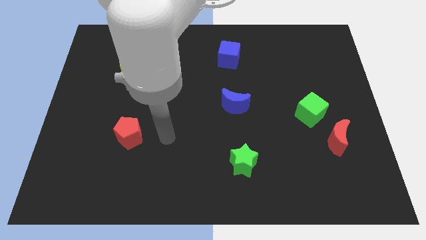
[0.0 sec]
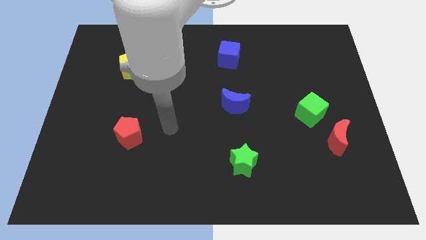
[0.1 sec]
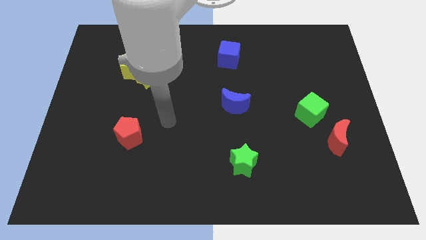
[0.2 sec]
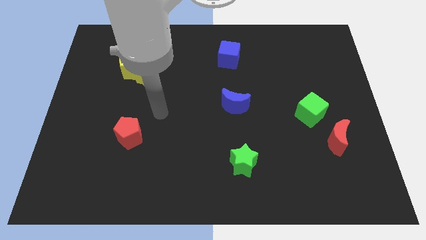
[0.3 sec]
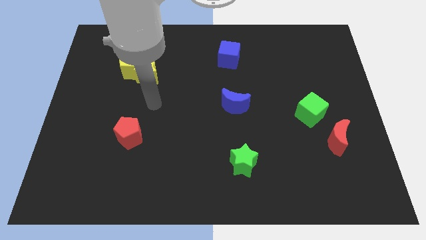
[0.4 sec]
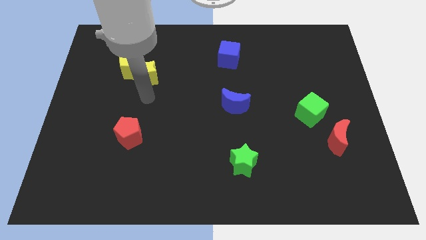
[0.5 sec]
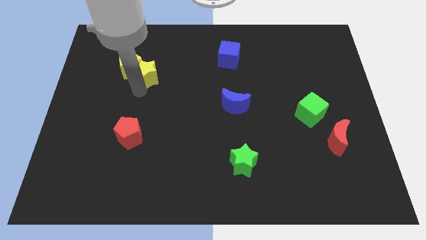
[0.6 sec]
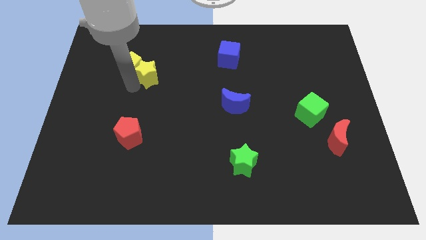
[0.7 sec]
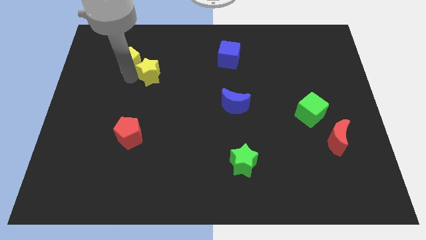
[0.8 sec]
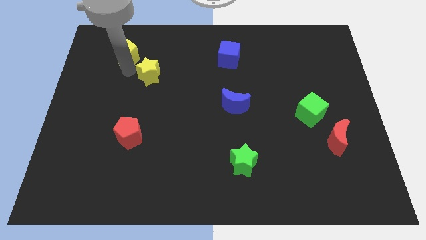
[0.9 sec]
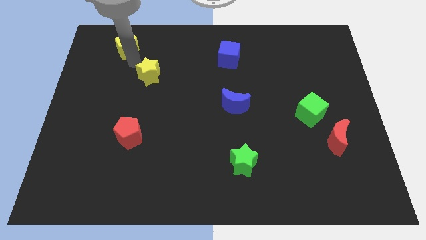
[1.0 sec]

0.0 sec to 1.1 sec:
separate the yellow star from the yellow pentagon

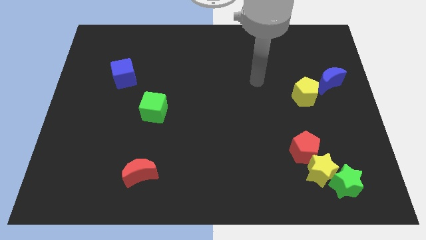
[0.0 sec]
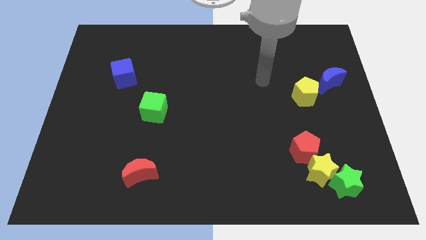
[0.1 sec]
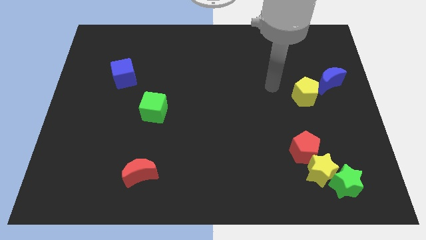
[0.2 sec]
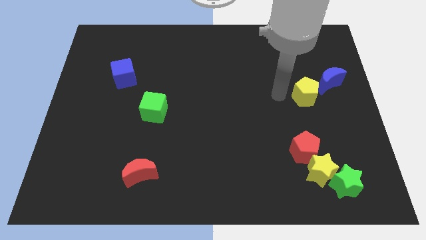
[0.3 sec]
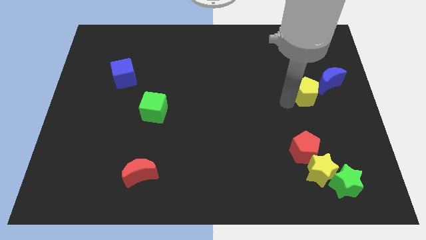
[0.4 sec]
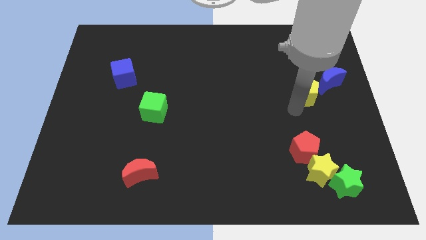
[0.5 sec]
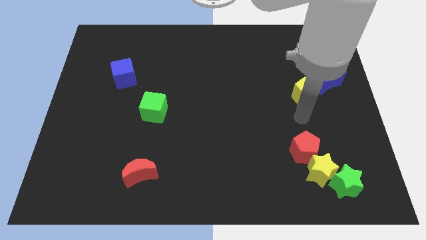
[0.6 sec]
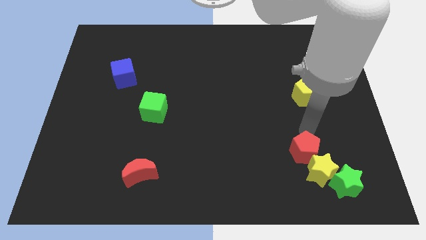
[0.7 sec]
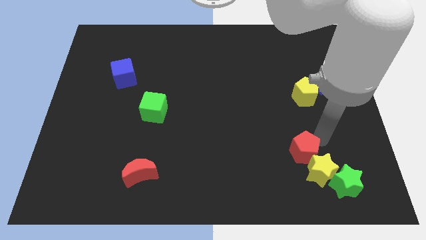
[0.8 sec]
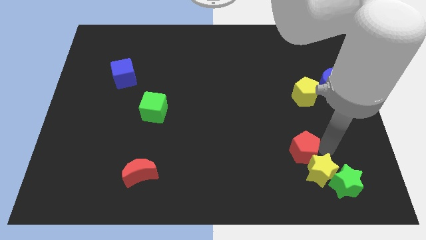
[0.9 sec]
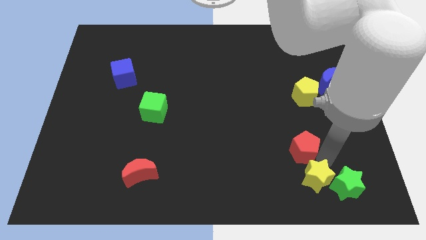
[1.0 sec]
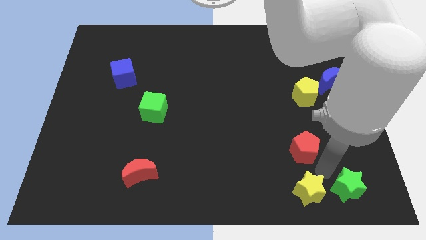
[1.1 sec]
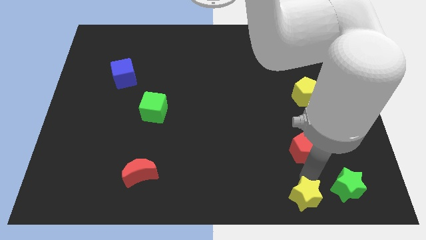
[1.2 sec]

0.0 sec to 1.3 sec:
pull the red pentagon apart from the yellow star

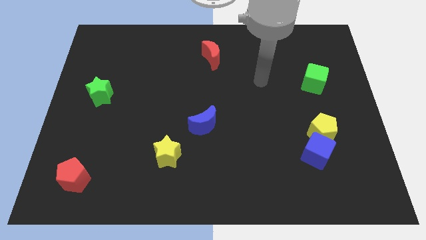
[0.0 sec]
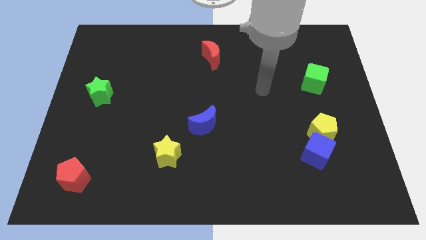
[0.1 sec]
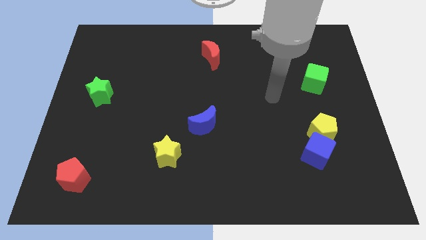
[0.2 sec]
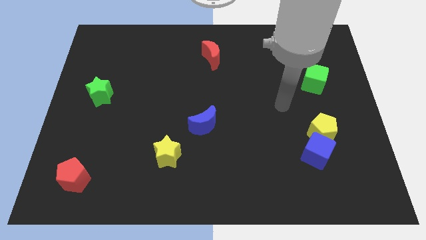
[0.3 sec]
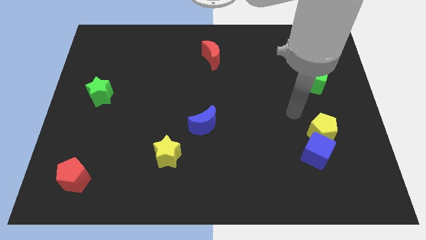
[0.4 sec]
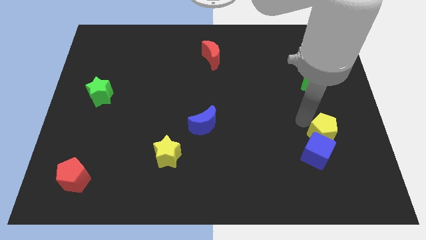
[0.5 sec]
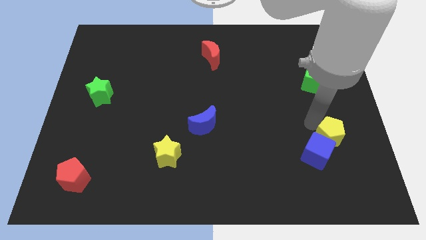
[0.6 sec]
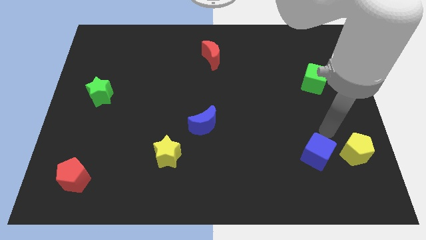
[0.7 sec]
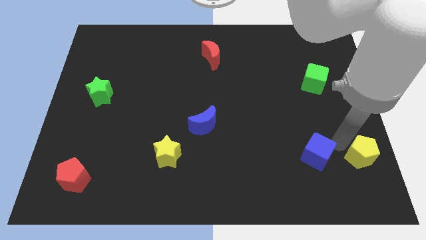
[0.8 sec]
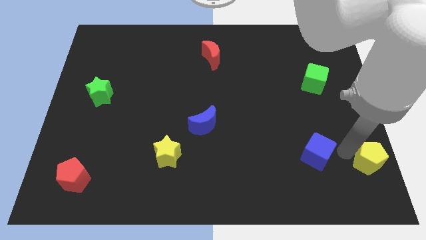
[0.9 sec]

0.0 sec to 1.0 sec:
pull the blue cube apart from the yellow pentagon

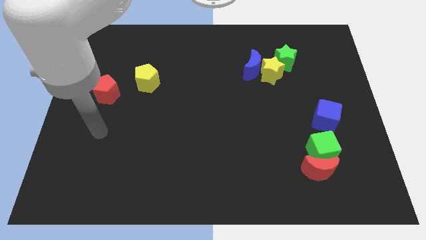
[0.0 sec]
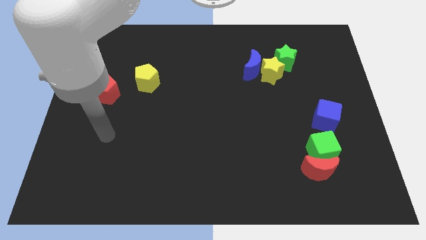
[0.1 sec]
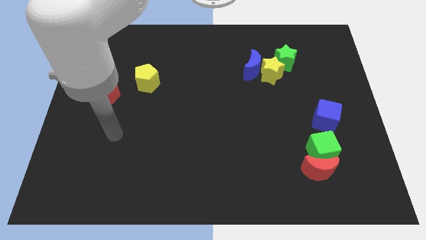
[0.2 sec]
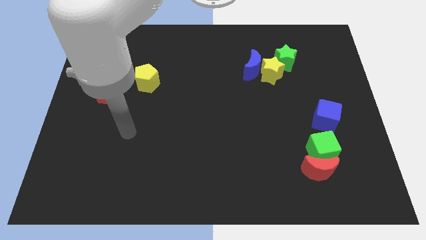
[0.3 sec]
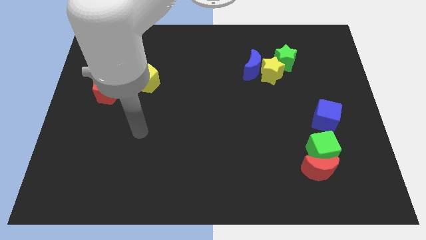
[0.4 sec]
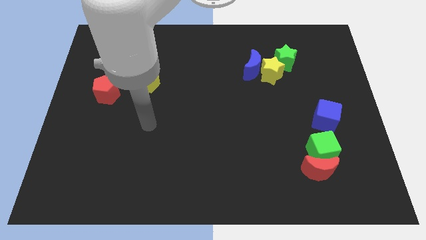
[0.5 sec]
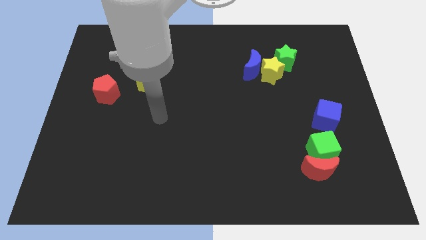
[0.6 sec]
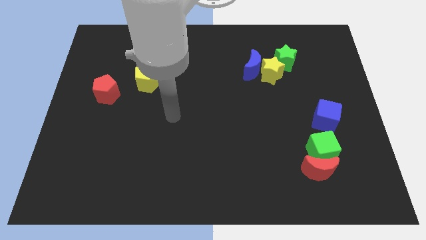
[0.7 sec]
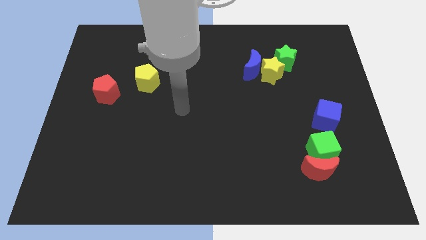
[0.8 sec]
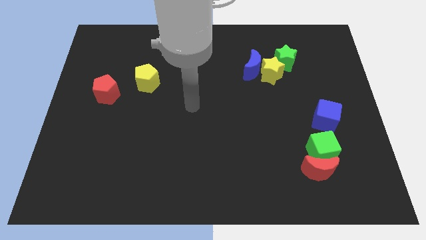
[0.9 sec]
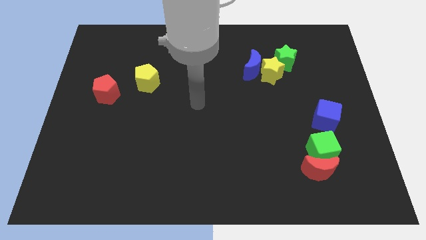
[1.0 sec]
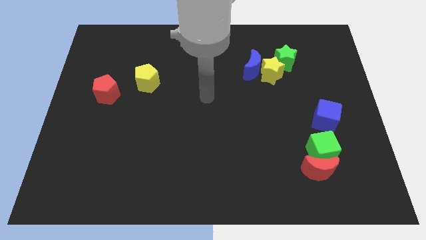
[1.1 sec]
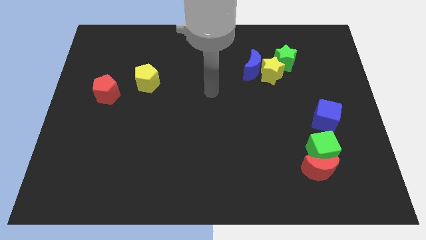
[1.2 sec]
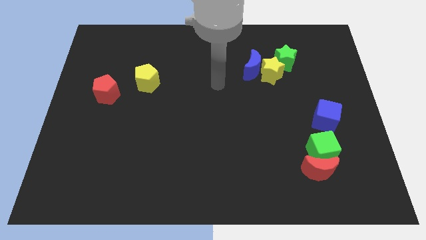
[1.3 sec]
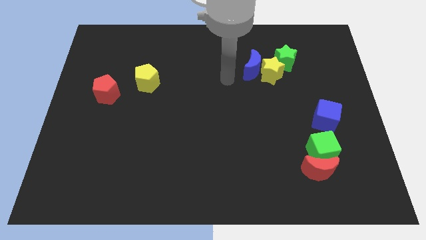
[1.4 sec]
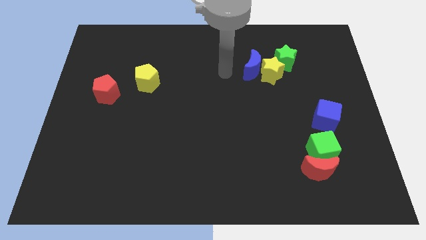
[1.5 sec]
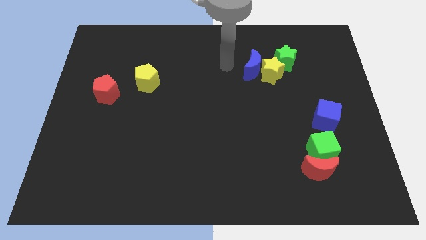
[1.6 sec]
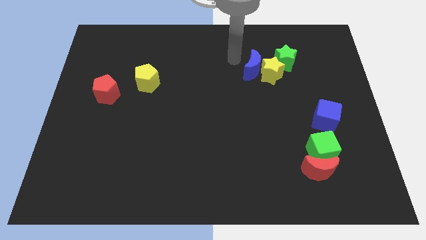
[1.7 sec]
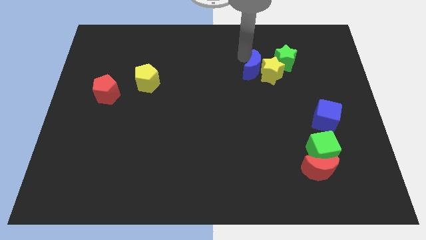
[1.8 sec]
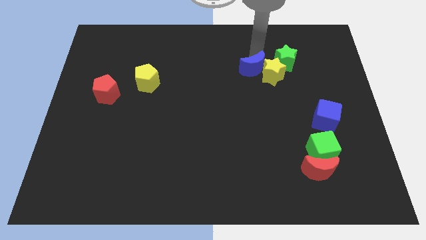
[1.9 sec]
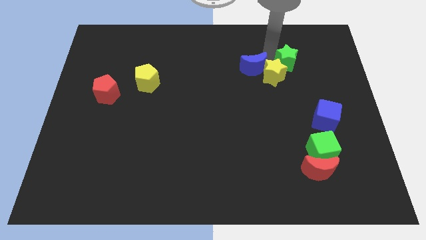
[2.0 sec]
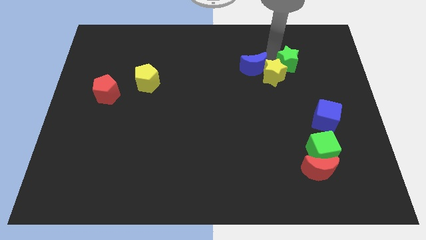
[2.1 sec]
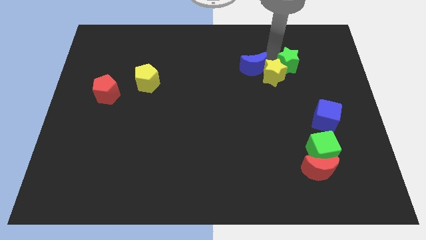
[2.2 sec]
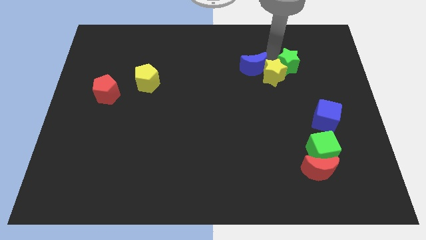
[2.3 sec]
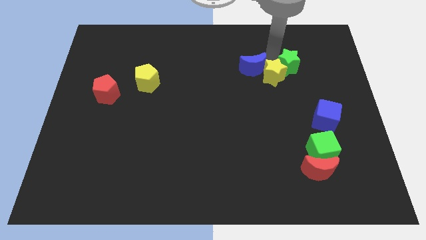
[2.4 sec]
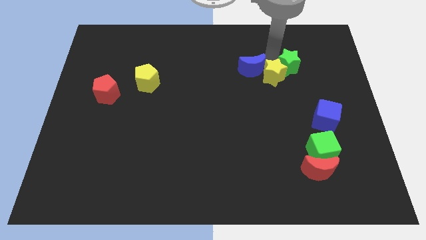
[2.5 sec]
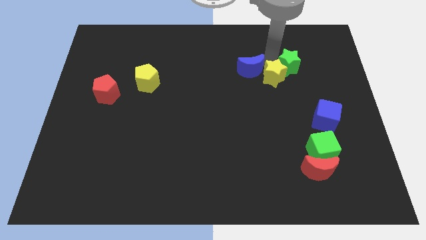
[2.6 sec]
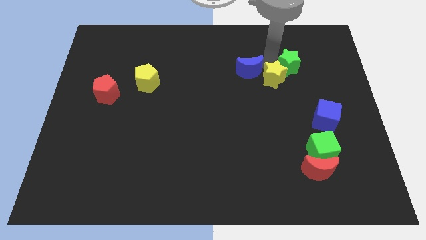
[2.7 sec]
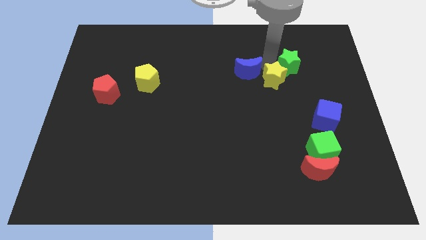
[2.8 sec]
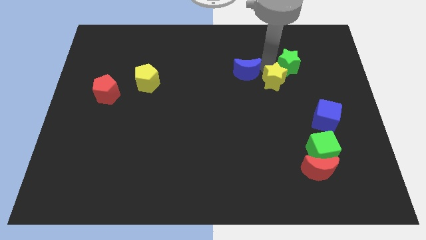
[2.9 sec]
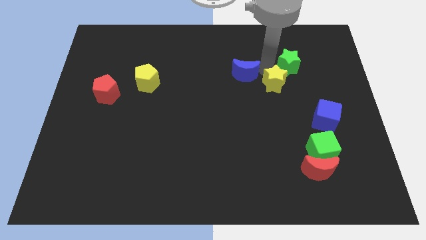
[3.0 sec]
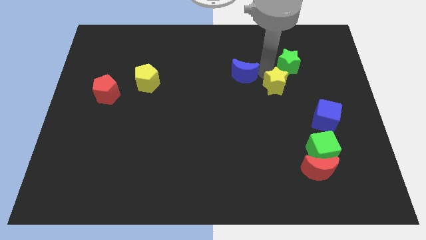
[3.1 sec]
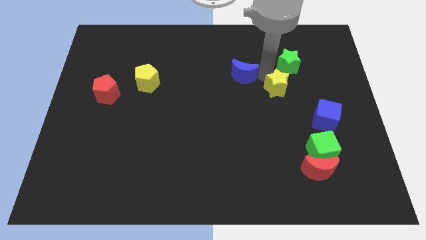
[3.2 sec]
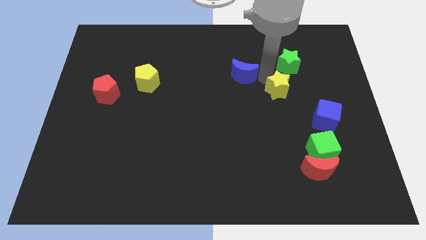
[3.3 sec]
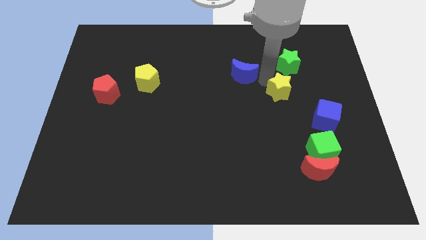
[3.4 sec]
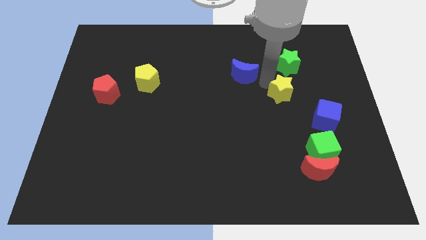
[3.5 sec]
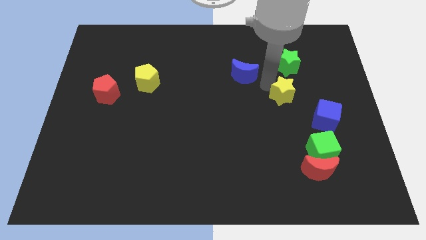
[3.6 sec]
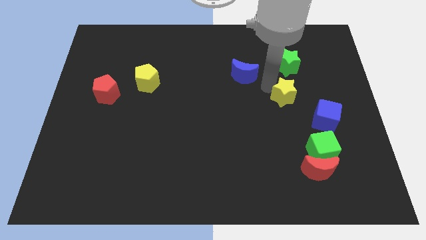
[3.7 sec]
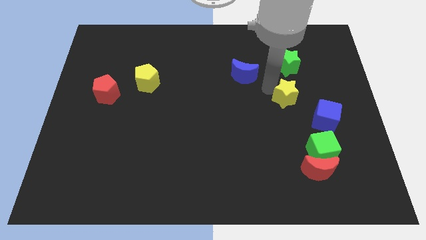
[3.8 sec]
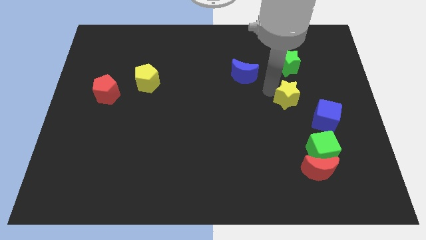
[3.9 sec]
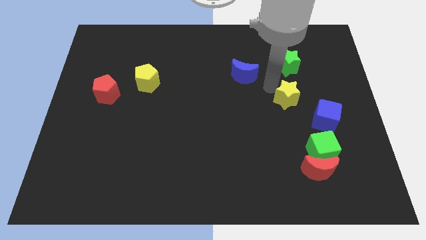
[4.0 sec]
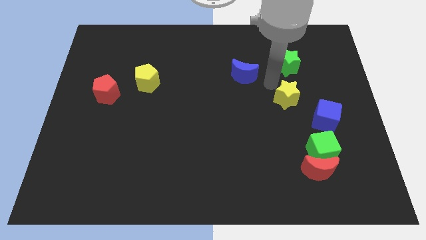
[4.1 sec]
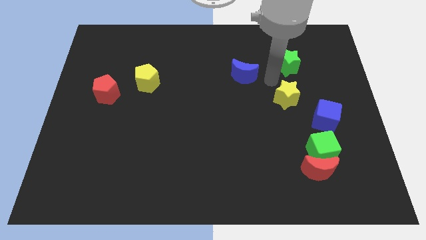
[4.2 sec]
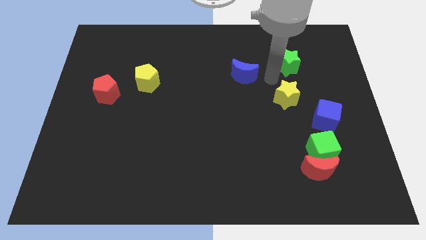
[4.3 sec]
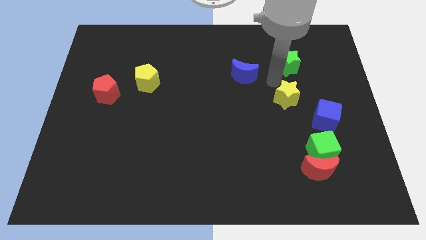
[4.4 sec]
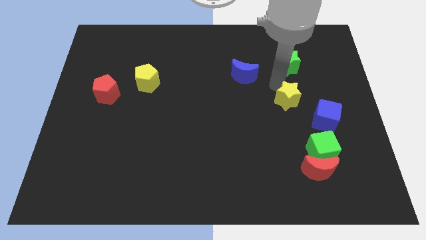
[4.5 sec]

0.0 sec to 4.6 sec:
move the yellow star away from the blue moon and green star

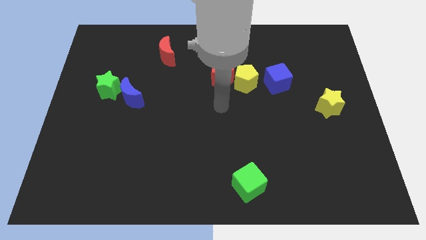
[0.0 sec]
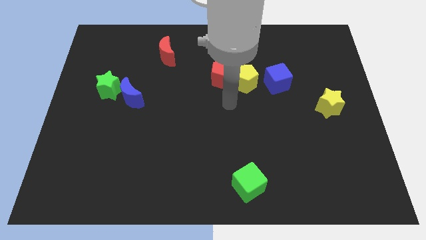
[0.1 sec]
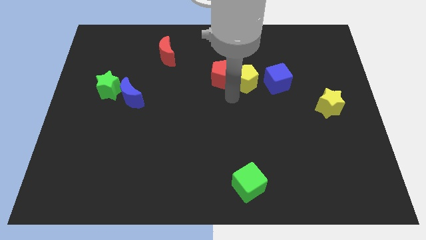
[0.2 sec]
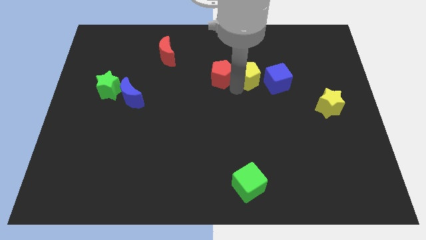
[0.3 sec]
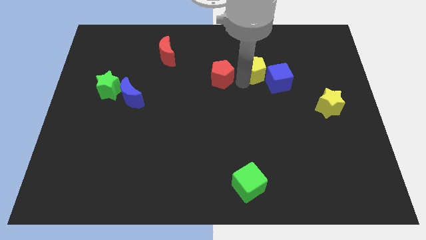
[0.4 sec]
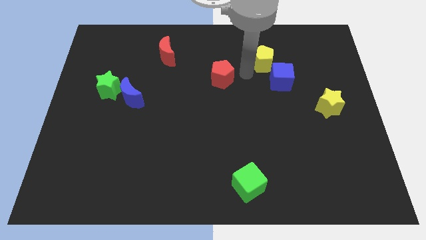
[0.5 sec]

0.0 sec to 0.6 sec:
separate the red pentagon from the yellow pentagon

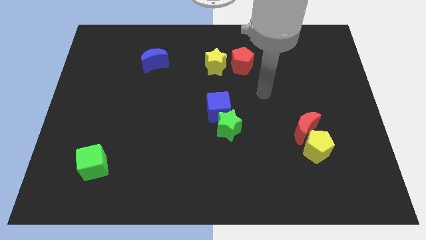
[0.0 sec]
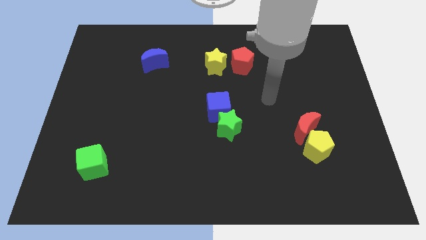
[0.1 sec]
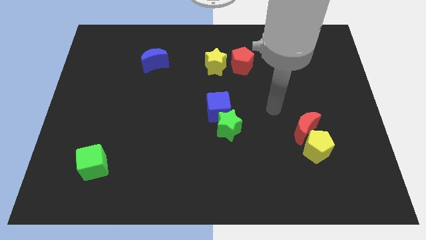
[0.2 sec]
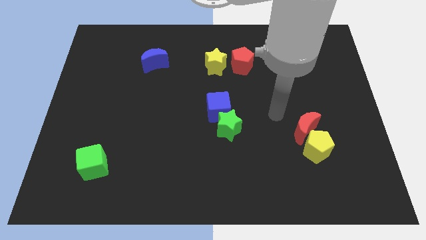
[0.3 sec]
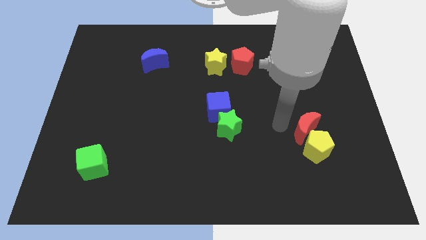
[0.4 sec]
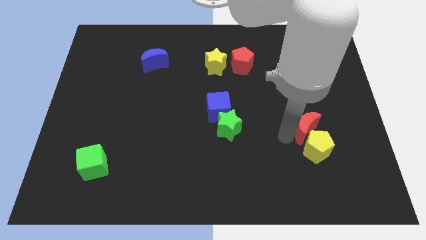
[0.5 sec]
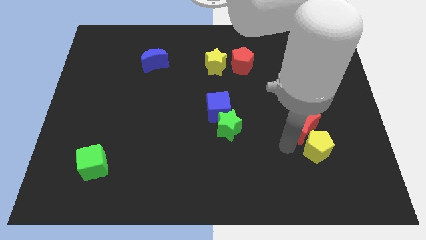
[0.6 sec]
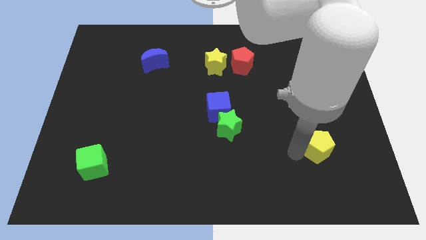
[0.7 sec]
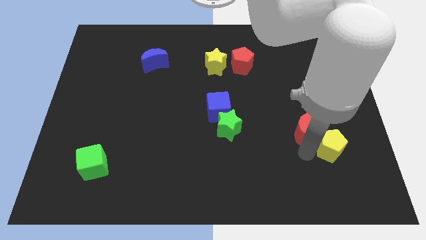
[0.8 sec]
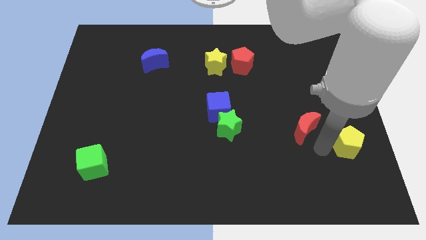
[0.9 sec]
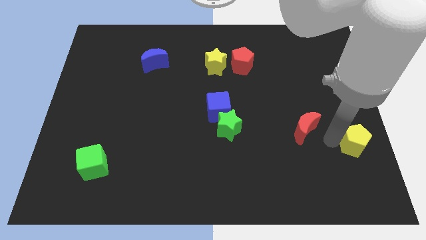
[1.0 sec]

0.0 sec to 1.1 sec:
separate the red moon from the yellow pentagon
